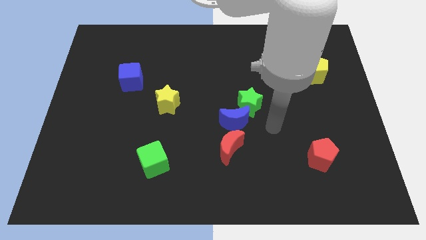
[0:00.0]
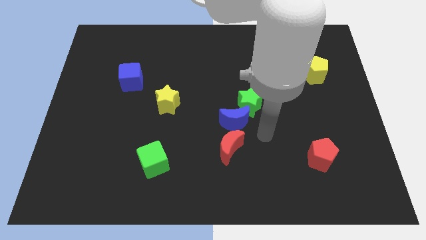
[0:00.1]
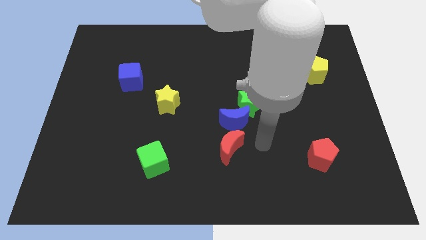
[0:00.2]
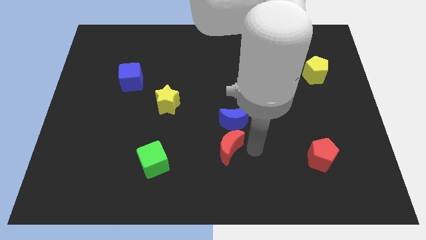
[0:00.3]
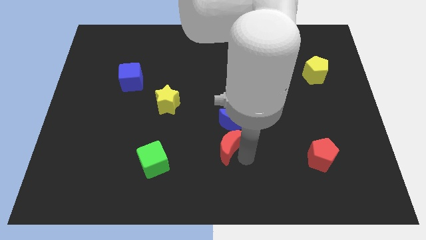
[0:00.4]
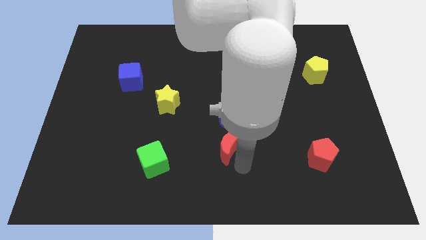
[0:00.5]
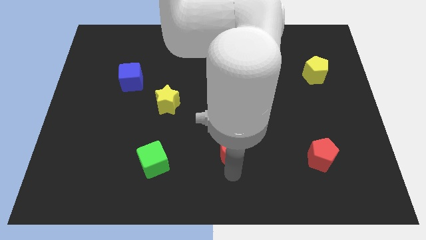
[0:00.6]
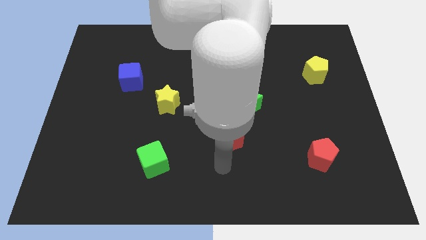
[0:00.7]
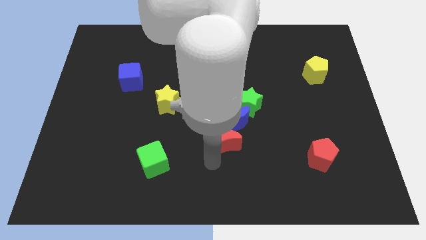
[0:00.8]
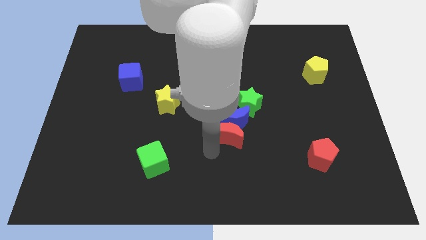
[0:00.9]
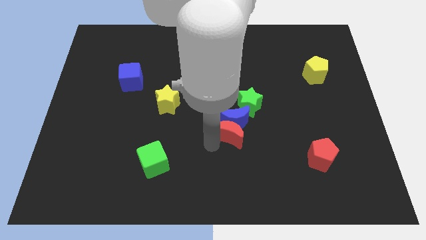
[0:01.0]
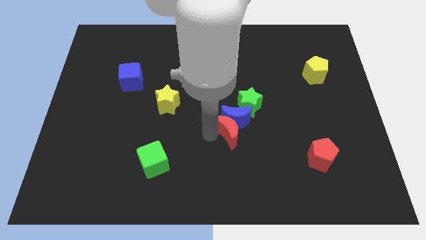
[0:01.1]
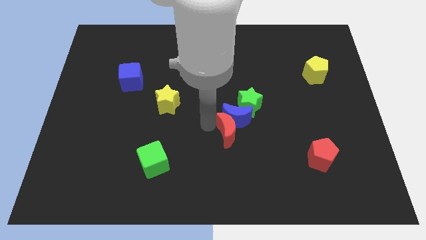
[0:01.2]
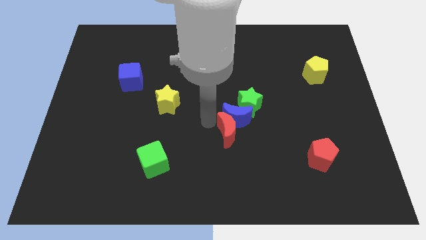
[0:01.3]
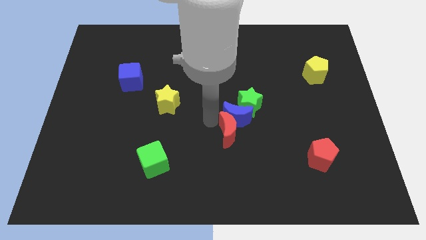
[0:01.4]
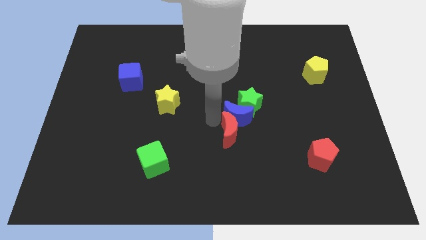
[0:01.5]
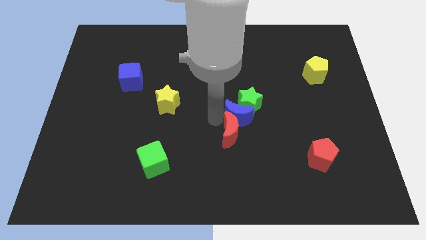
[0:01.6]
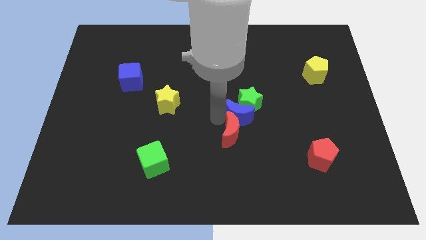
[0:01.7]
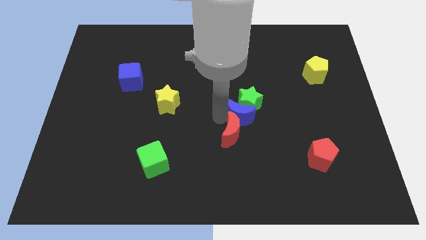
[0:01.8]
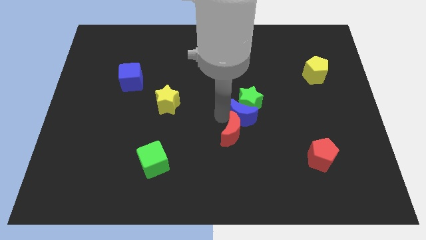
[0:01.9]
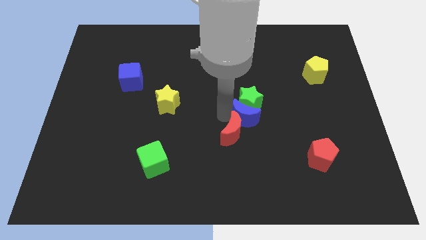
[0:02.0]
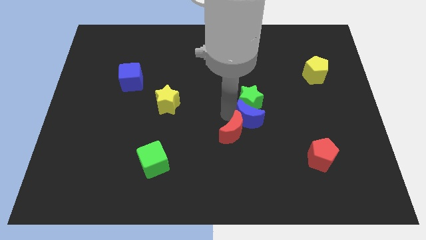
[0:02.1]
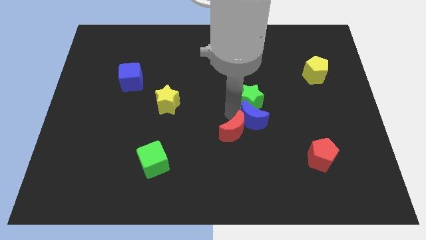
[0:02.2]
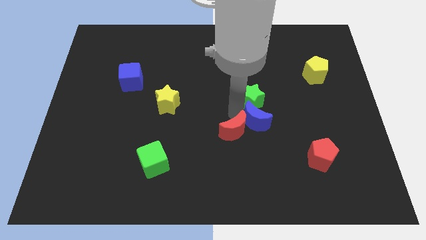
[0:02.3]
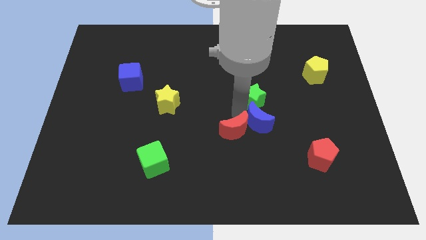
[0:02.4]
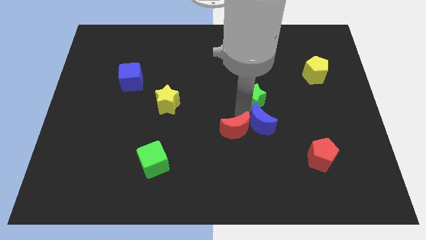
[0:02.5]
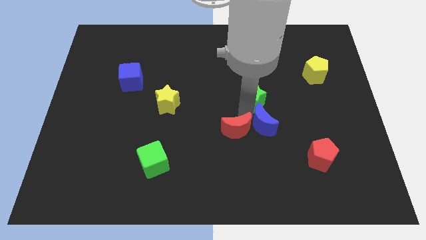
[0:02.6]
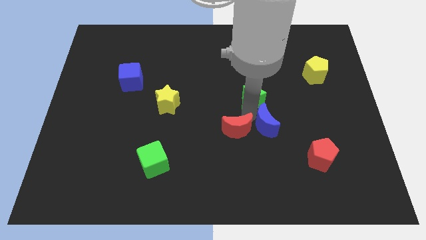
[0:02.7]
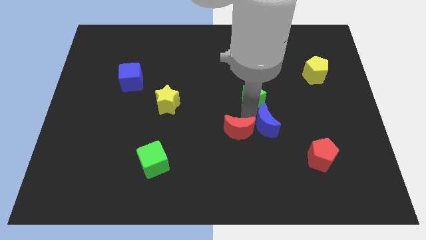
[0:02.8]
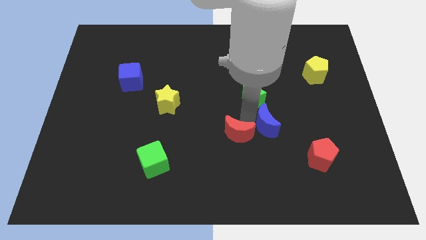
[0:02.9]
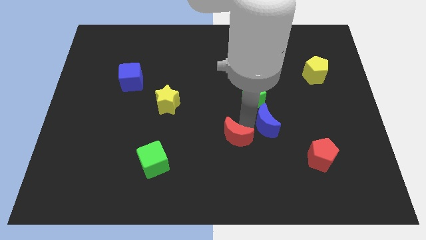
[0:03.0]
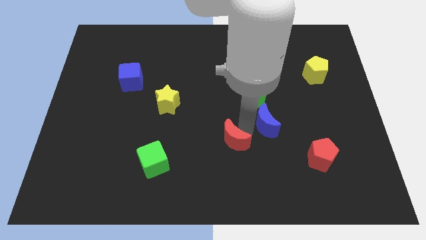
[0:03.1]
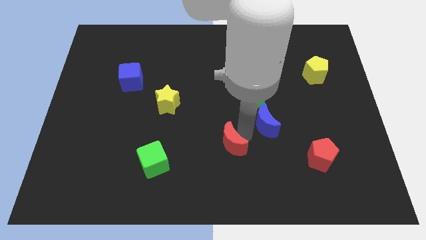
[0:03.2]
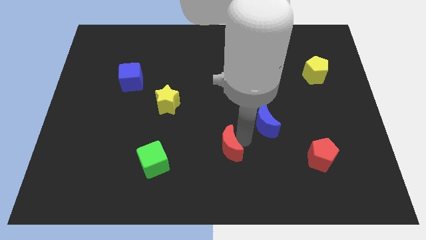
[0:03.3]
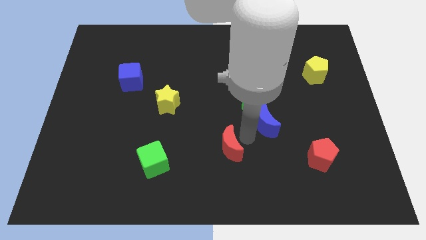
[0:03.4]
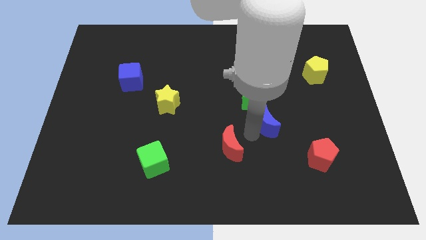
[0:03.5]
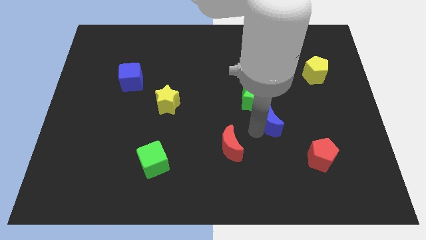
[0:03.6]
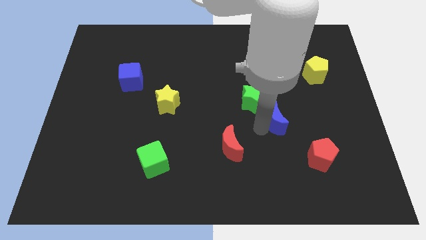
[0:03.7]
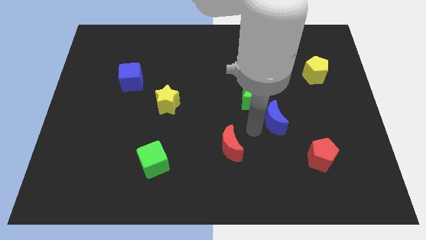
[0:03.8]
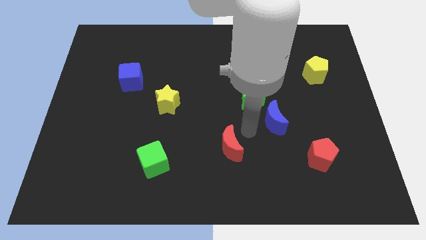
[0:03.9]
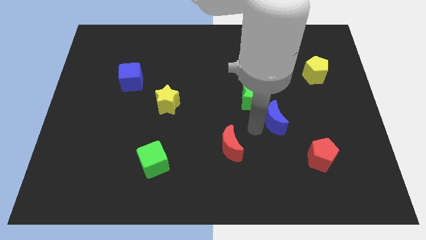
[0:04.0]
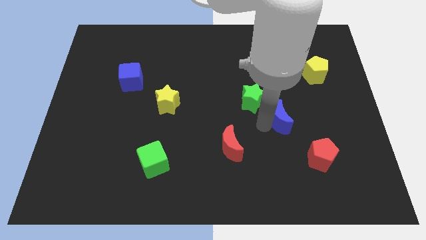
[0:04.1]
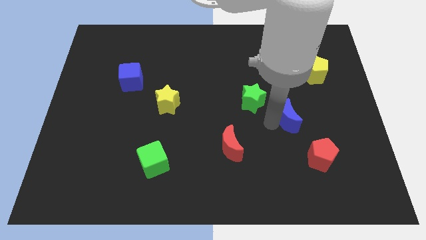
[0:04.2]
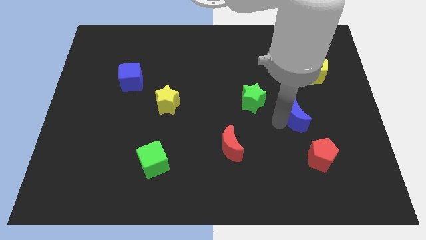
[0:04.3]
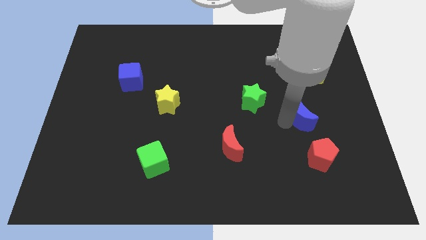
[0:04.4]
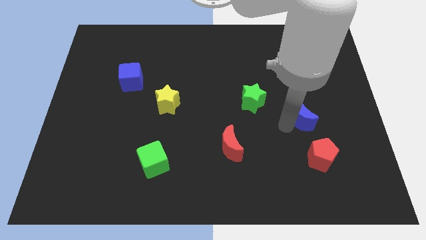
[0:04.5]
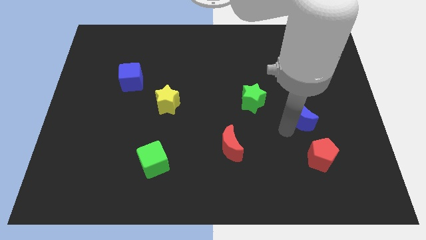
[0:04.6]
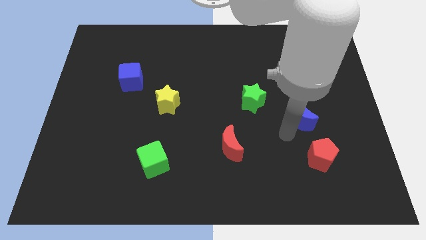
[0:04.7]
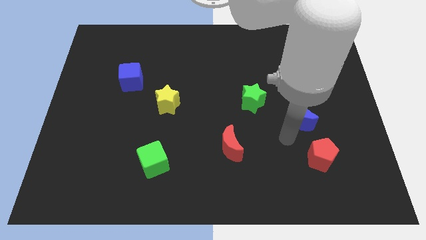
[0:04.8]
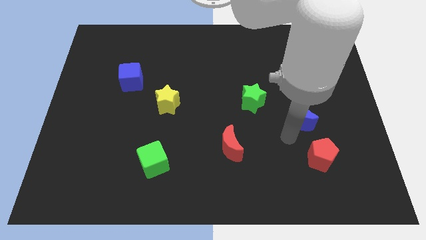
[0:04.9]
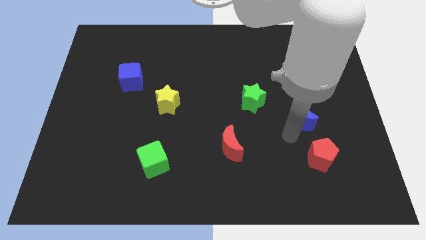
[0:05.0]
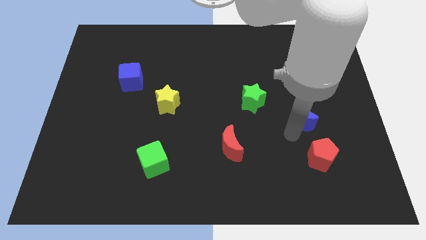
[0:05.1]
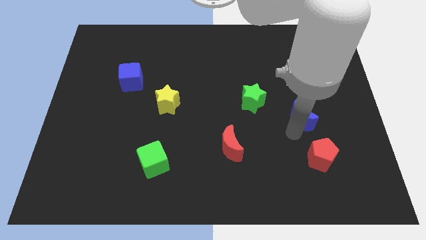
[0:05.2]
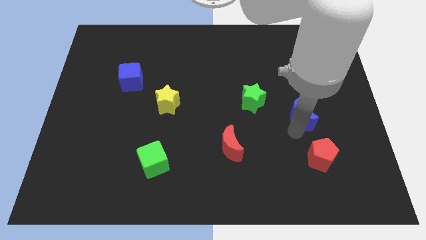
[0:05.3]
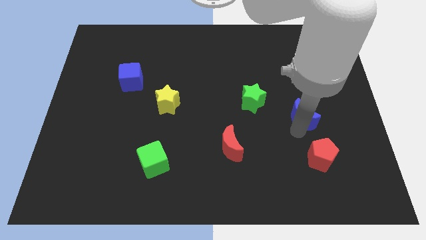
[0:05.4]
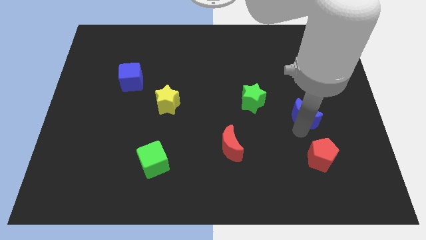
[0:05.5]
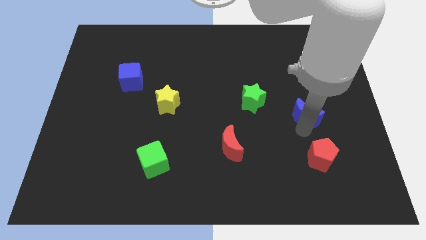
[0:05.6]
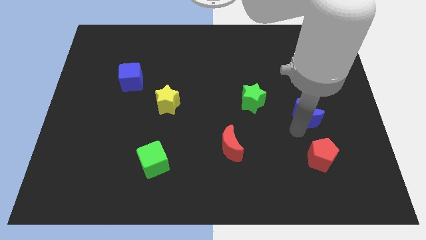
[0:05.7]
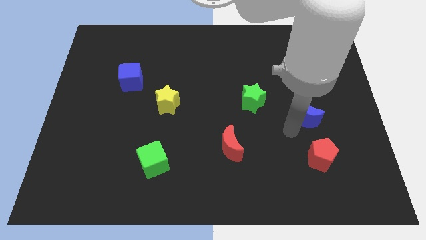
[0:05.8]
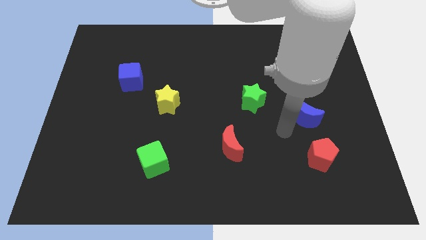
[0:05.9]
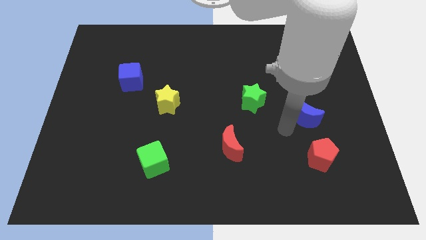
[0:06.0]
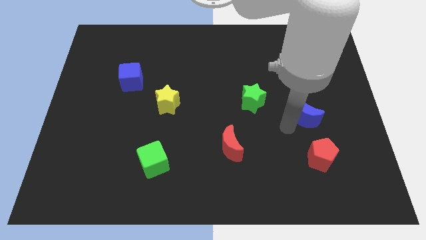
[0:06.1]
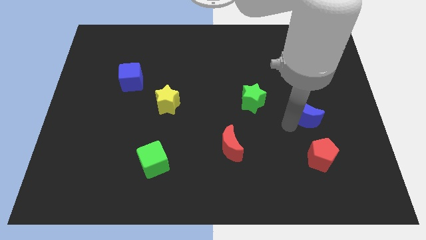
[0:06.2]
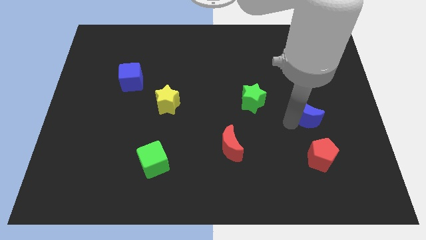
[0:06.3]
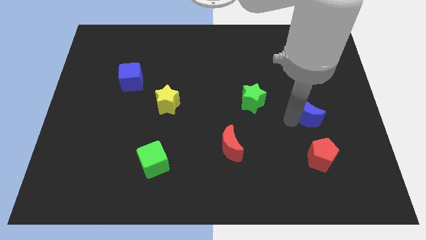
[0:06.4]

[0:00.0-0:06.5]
slide the blue moon to the bottom side of the yellow pentagon
